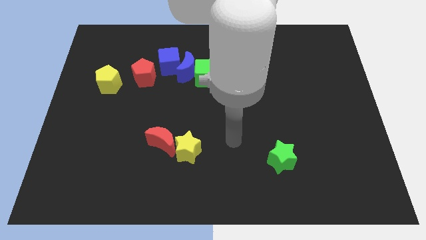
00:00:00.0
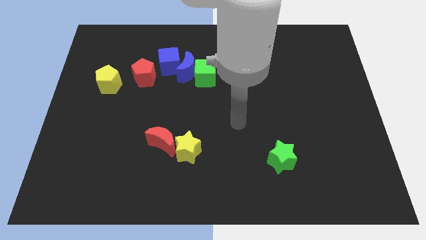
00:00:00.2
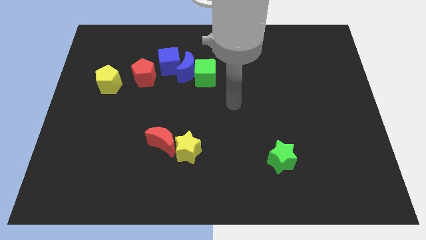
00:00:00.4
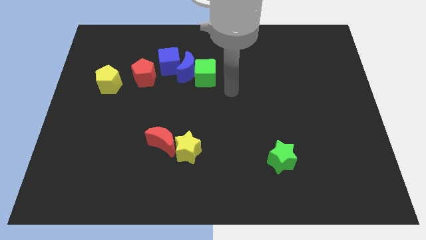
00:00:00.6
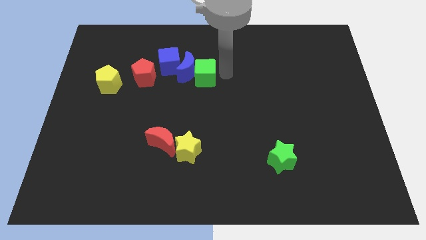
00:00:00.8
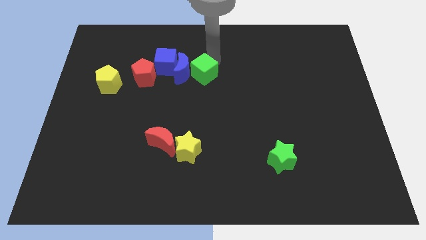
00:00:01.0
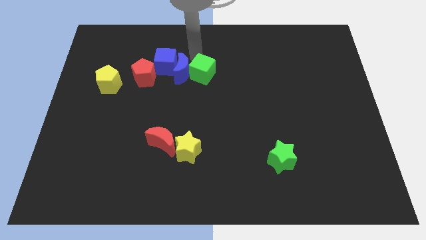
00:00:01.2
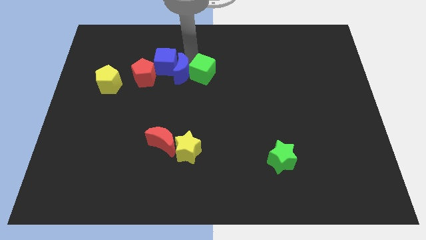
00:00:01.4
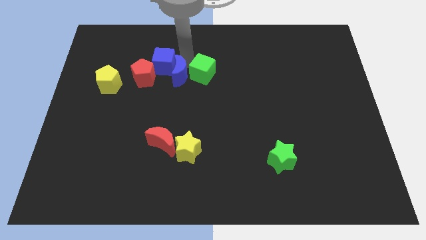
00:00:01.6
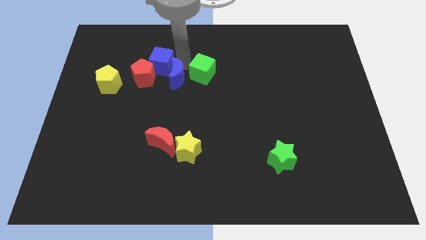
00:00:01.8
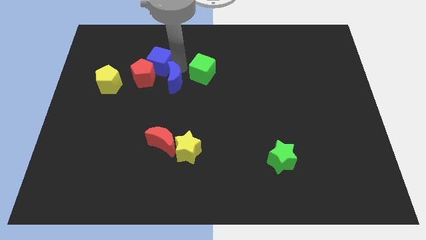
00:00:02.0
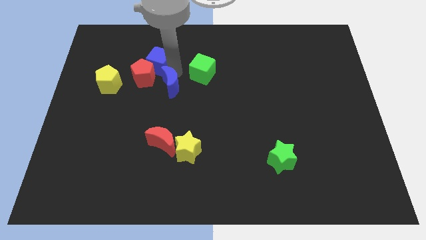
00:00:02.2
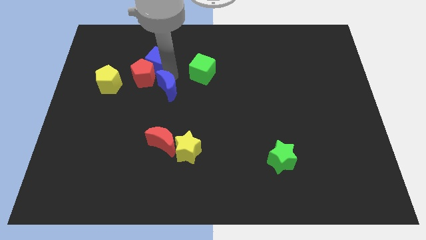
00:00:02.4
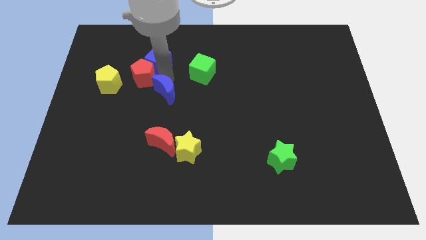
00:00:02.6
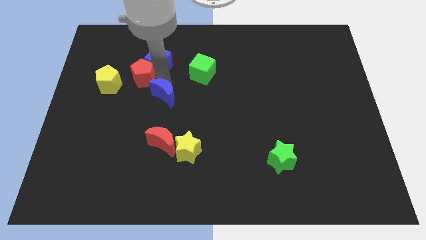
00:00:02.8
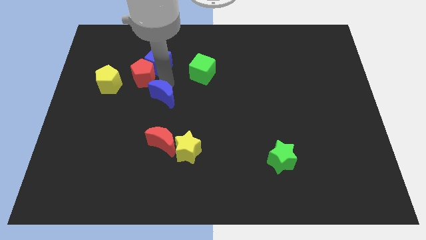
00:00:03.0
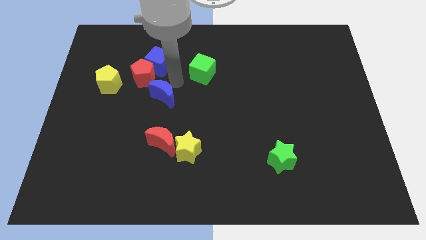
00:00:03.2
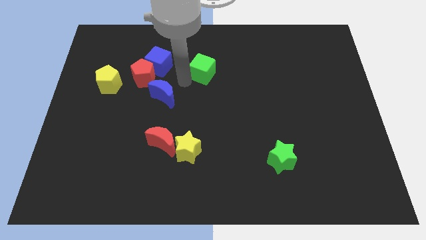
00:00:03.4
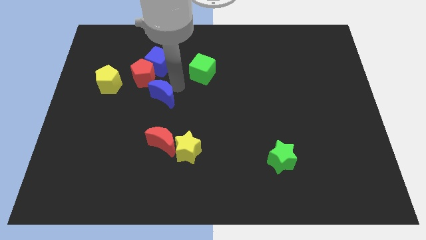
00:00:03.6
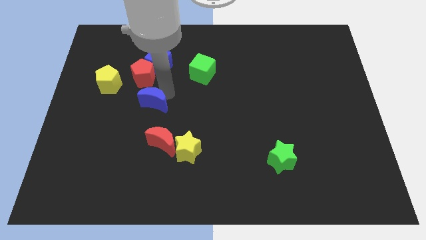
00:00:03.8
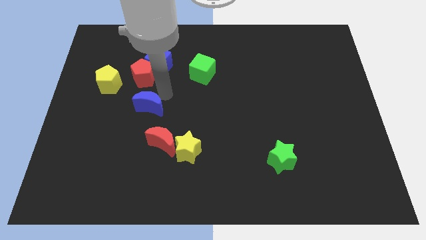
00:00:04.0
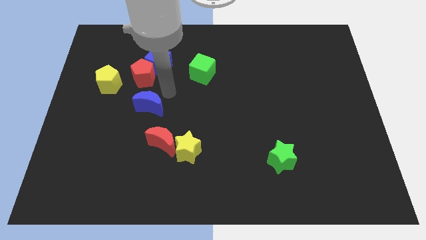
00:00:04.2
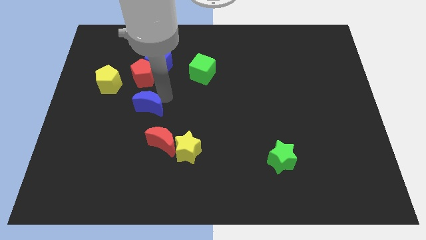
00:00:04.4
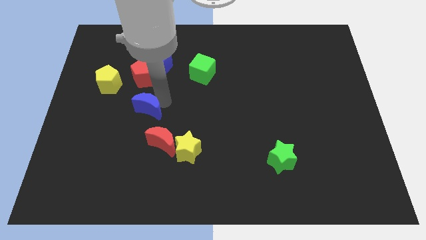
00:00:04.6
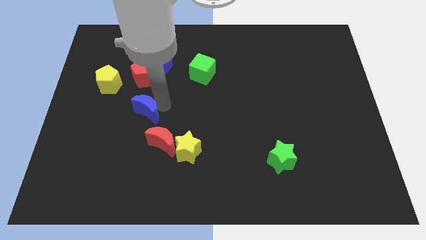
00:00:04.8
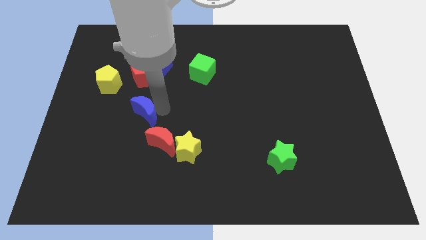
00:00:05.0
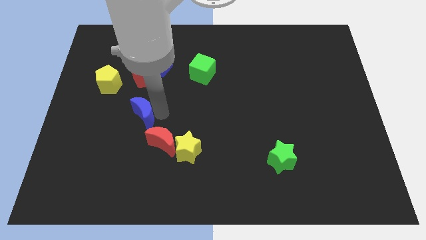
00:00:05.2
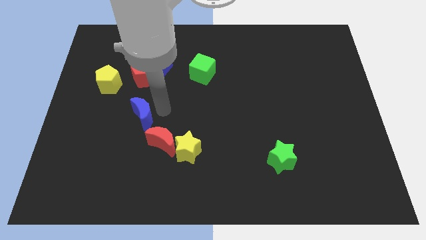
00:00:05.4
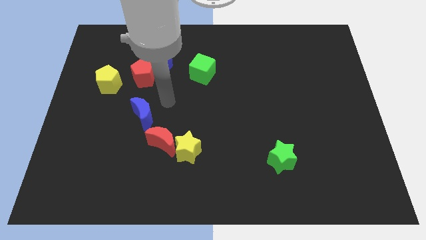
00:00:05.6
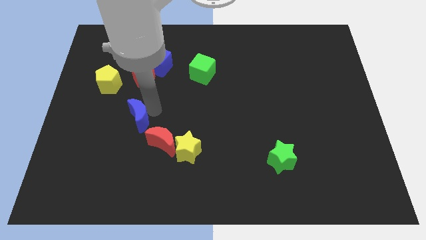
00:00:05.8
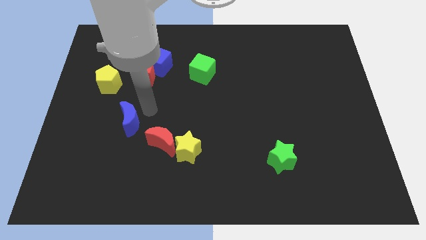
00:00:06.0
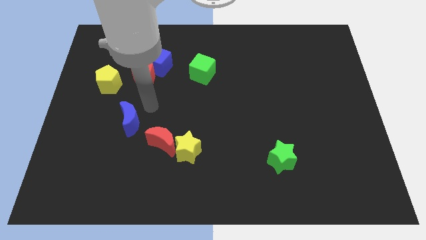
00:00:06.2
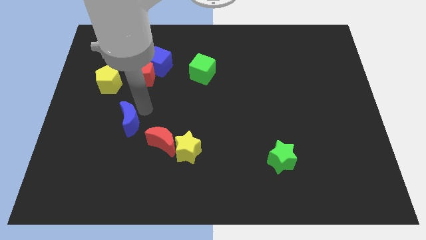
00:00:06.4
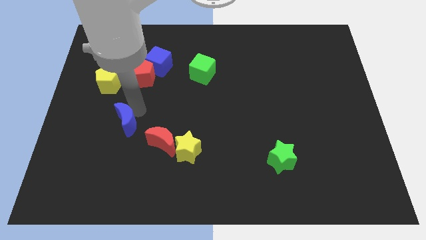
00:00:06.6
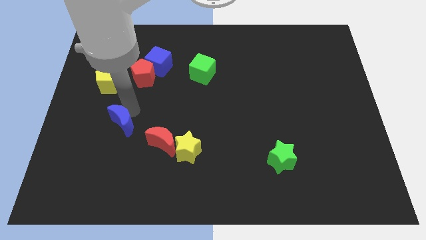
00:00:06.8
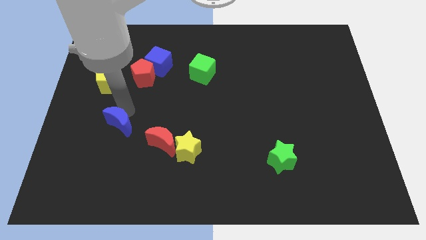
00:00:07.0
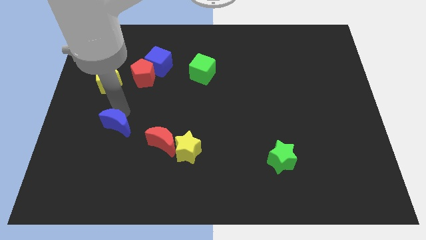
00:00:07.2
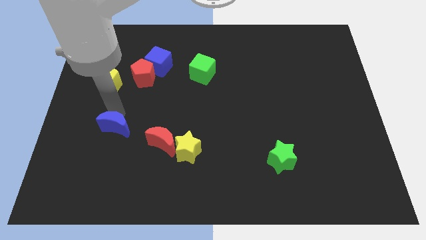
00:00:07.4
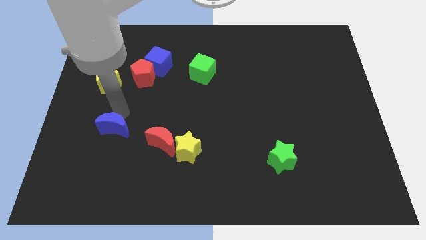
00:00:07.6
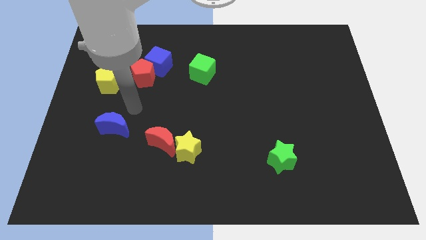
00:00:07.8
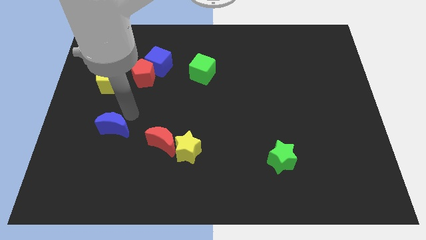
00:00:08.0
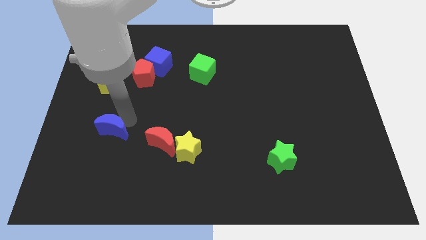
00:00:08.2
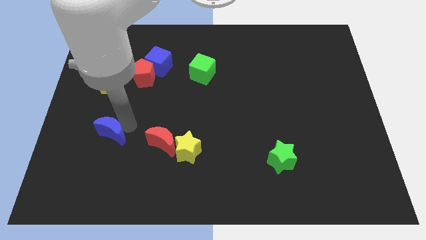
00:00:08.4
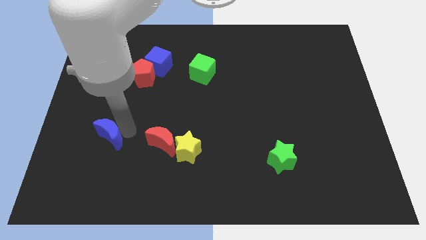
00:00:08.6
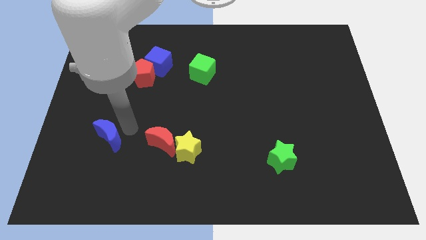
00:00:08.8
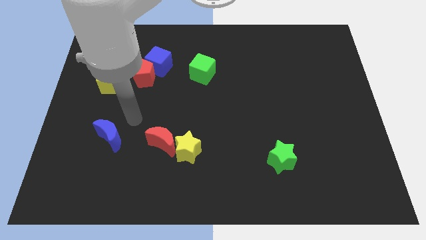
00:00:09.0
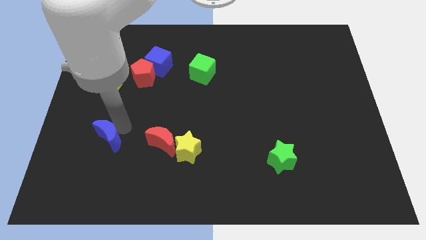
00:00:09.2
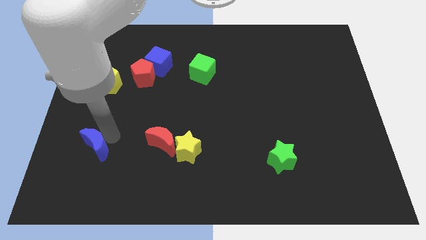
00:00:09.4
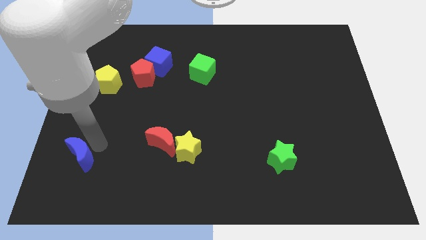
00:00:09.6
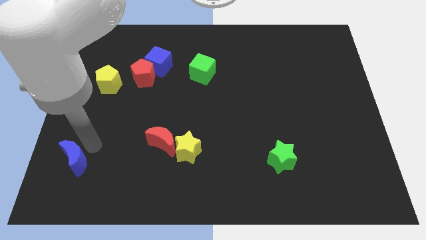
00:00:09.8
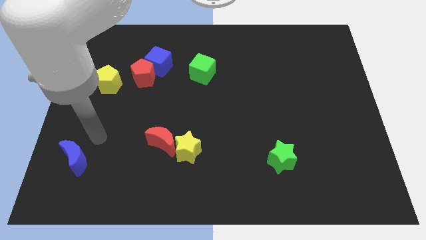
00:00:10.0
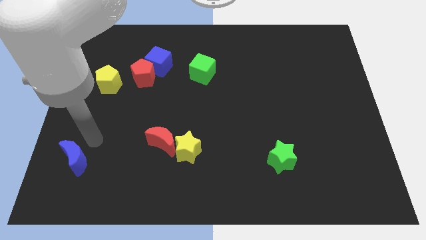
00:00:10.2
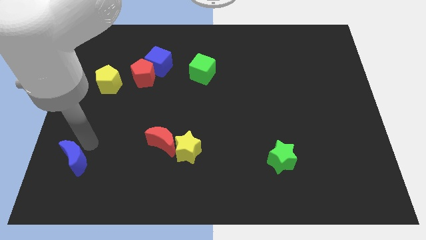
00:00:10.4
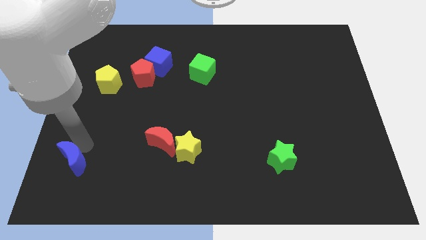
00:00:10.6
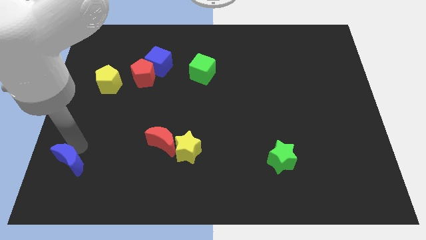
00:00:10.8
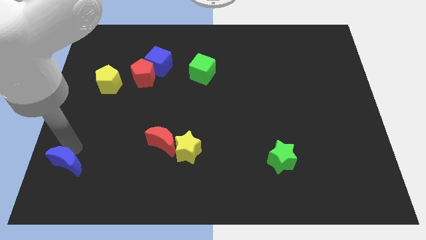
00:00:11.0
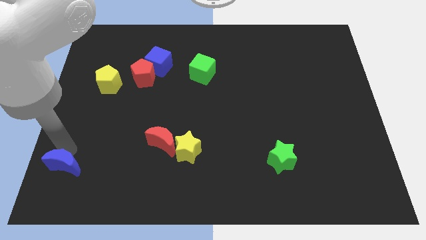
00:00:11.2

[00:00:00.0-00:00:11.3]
move the blue moon to the bottom left corner
